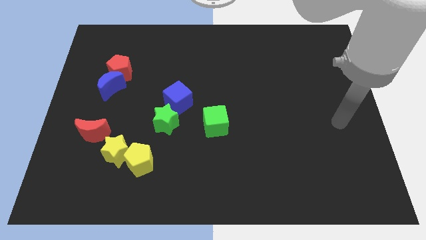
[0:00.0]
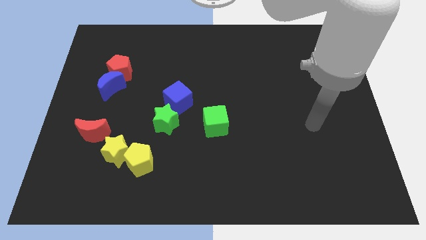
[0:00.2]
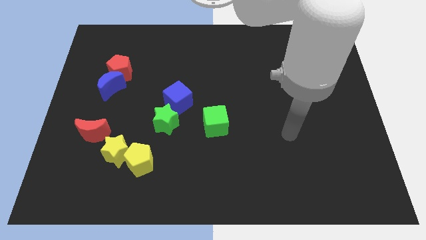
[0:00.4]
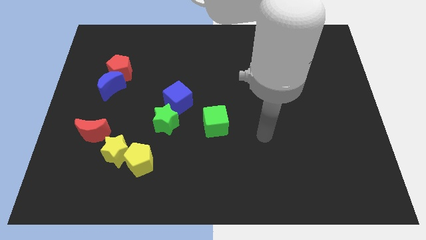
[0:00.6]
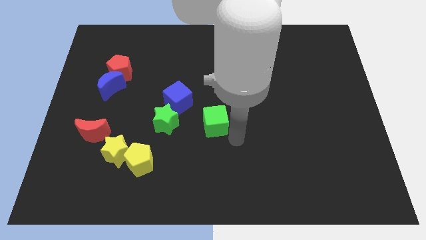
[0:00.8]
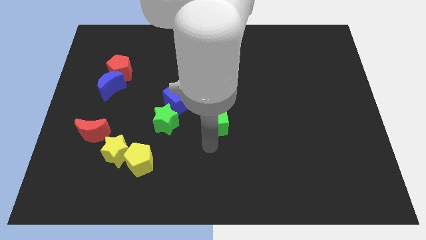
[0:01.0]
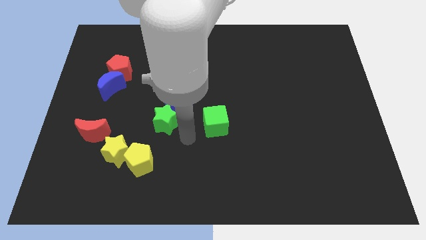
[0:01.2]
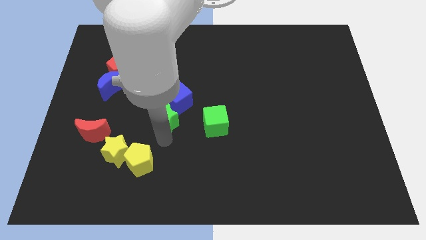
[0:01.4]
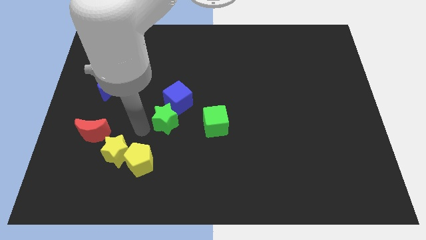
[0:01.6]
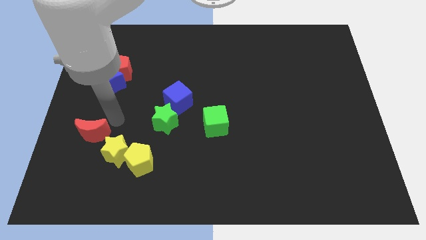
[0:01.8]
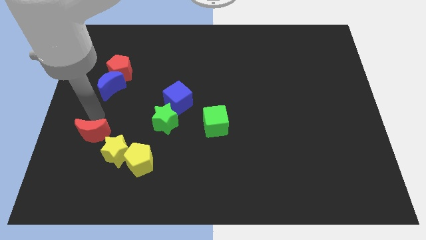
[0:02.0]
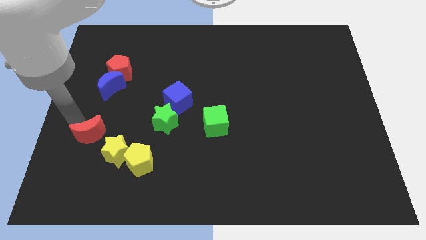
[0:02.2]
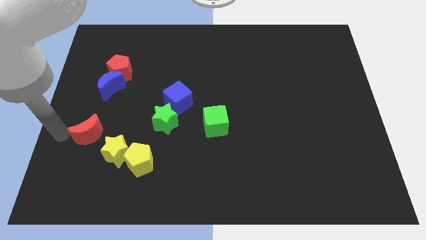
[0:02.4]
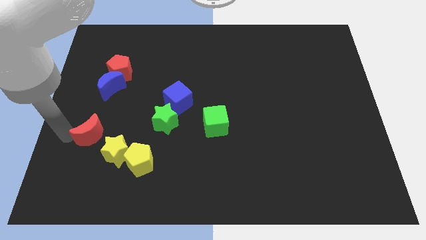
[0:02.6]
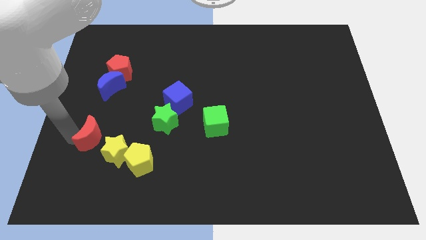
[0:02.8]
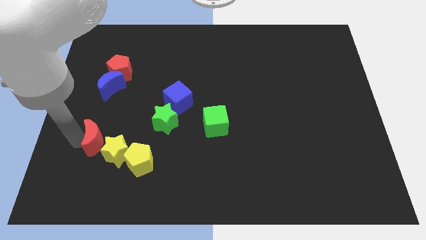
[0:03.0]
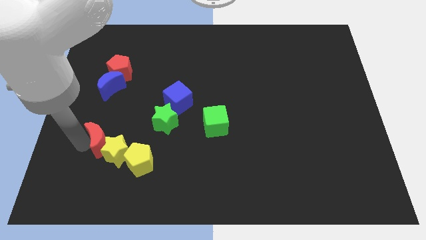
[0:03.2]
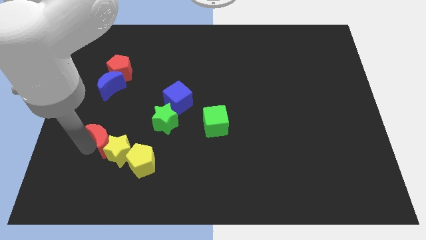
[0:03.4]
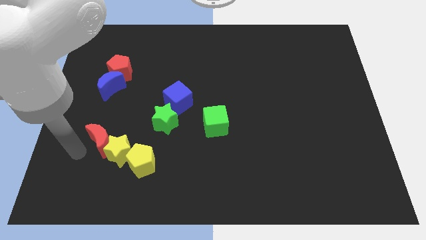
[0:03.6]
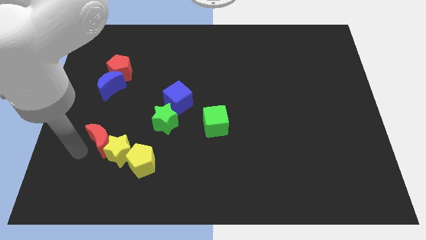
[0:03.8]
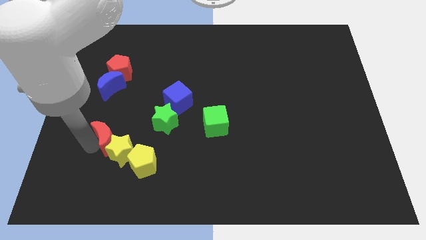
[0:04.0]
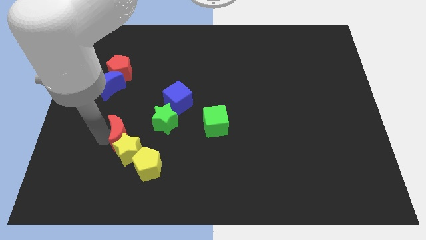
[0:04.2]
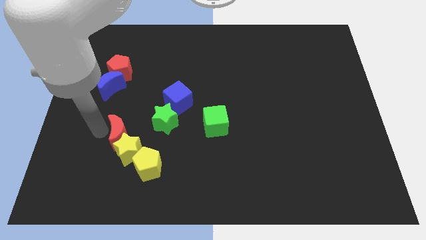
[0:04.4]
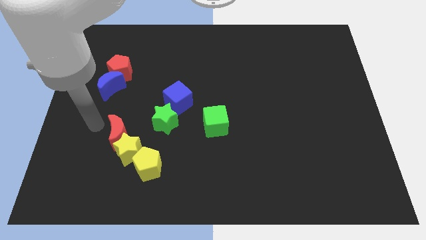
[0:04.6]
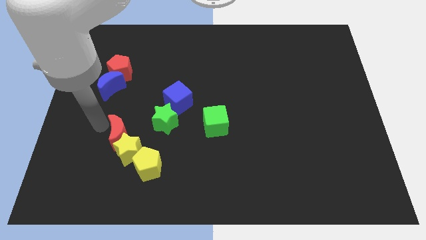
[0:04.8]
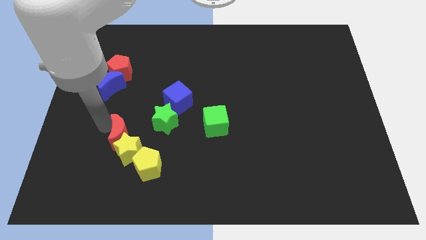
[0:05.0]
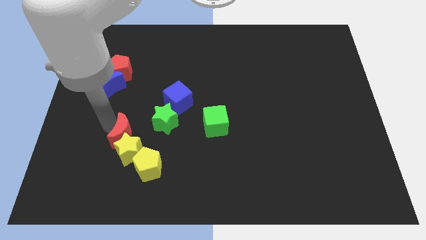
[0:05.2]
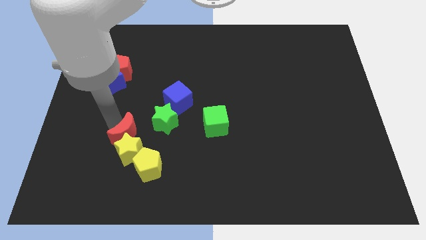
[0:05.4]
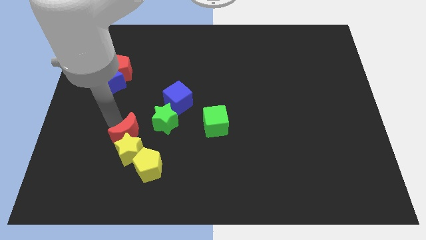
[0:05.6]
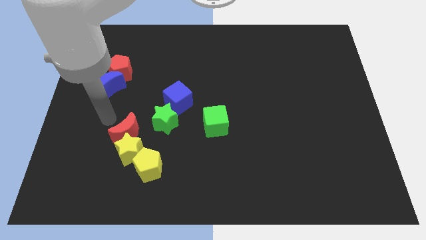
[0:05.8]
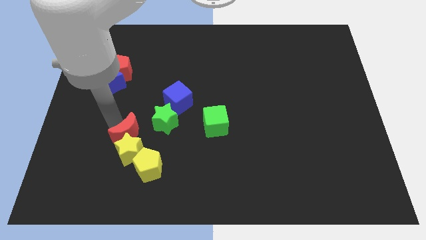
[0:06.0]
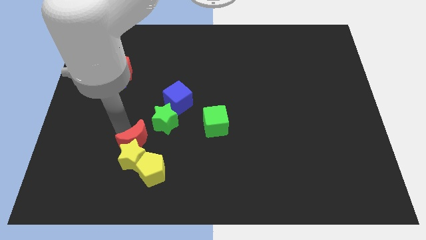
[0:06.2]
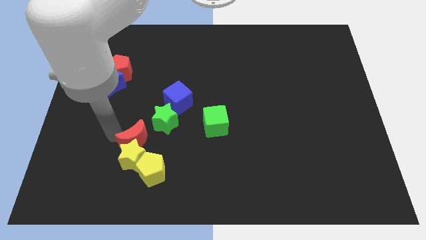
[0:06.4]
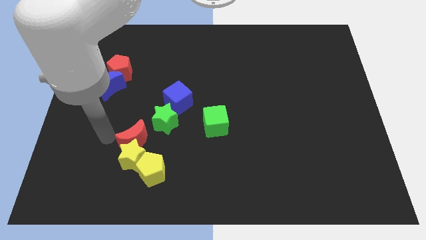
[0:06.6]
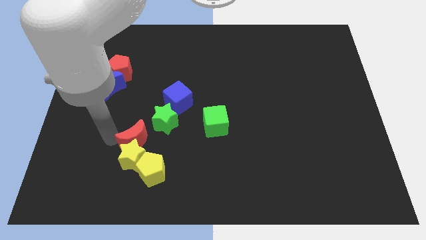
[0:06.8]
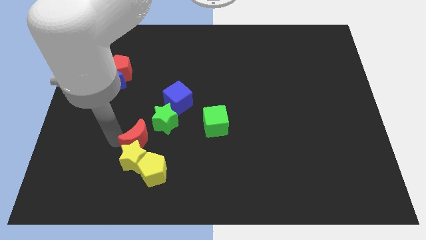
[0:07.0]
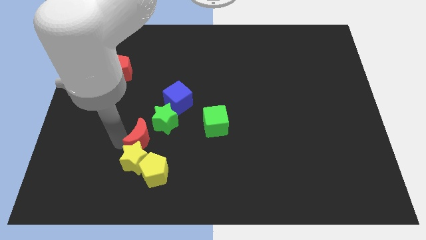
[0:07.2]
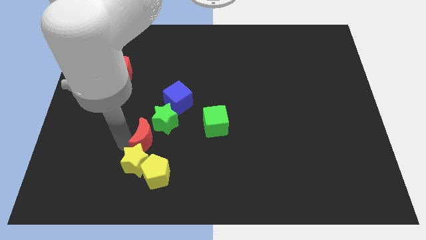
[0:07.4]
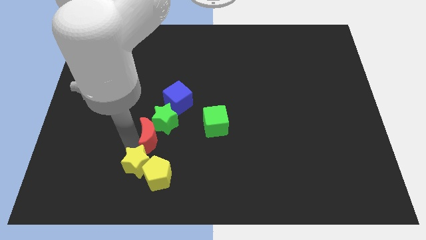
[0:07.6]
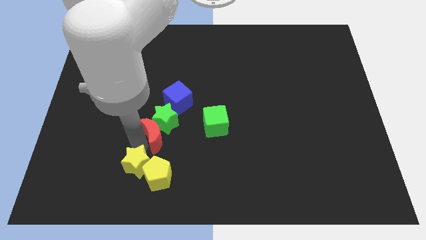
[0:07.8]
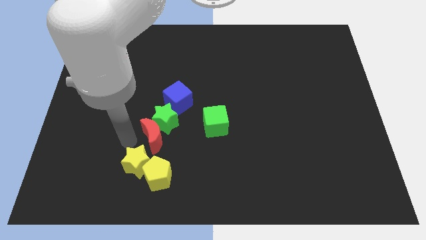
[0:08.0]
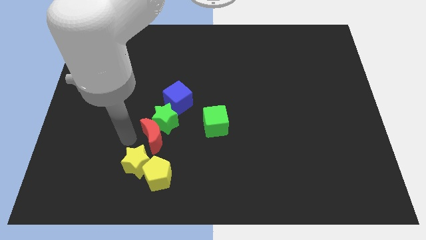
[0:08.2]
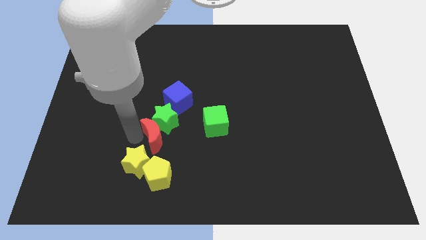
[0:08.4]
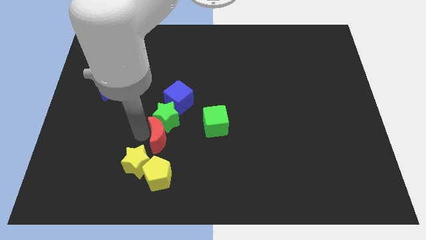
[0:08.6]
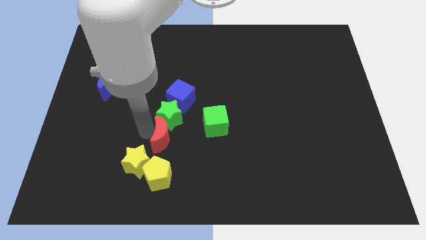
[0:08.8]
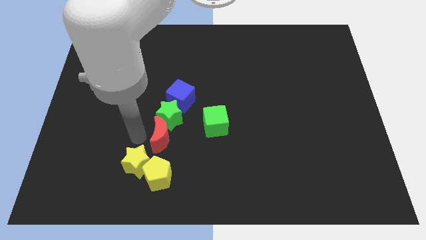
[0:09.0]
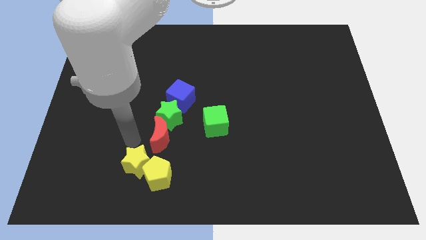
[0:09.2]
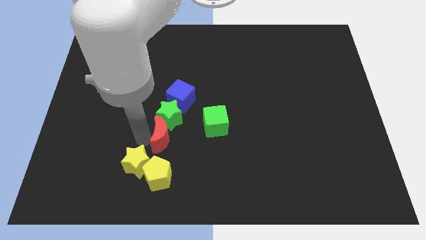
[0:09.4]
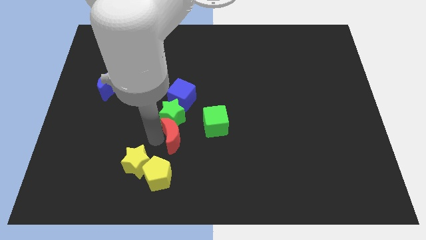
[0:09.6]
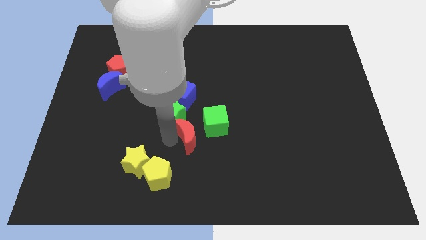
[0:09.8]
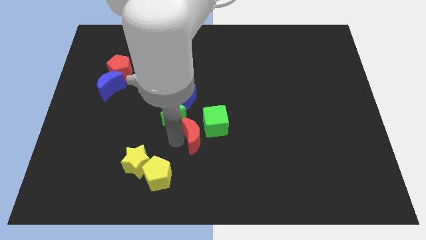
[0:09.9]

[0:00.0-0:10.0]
slide the red moon to the green cube

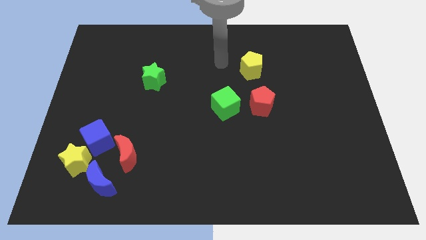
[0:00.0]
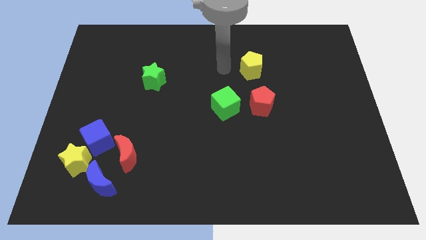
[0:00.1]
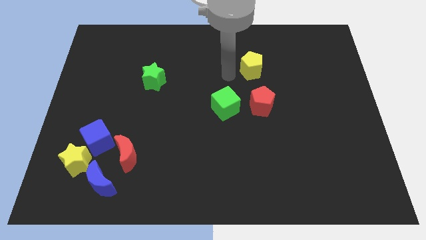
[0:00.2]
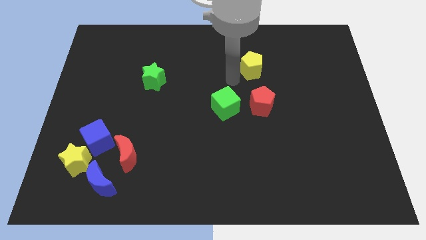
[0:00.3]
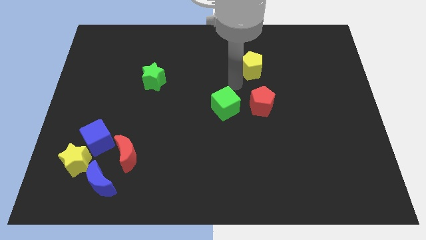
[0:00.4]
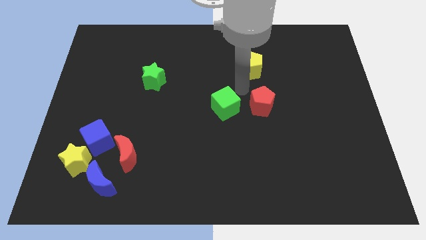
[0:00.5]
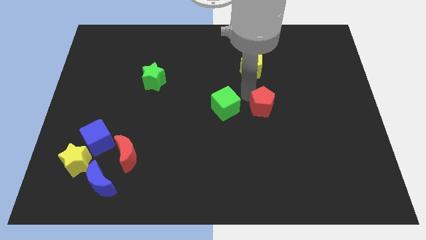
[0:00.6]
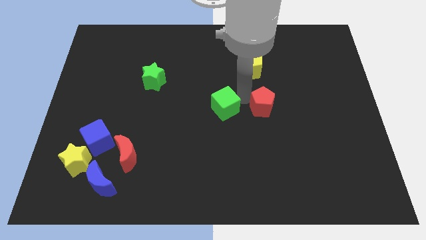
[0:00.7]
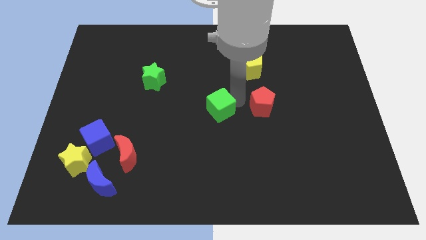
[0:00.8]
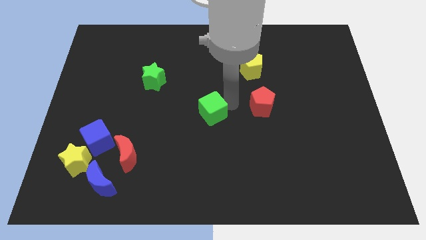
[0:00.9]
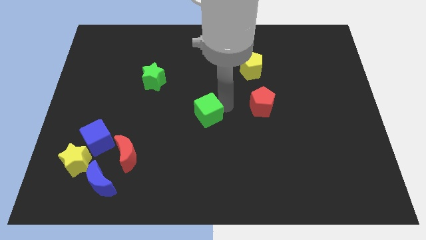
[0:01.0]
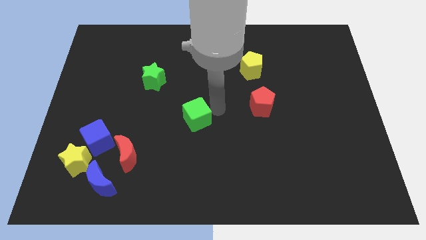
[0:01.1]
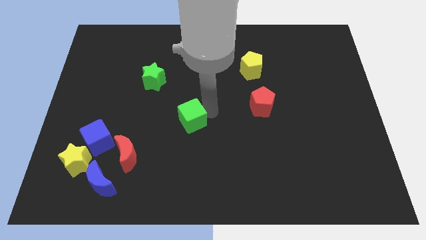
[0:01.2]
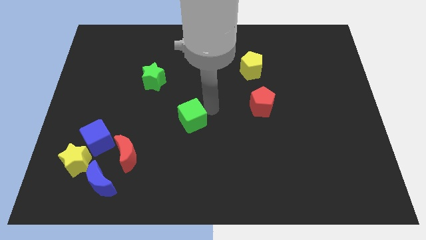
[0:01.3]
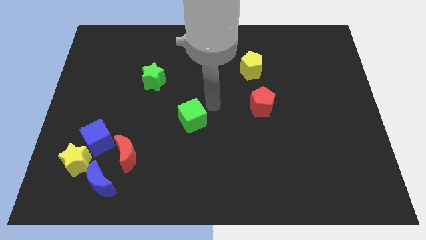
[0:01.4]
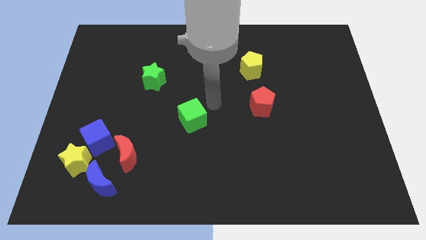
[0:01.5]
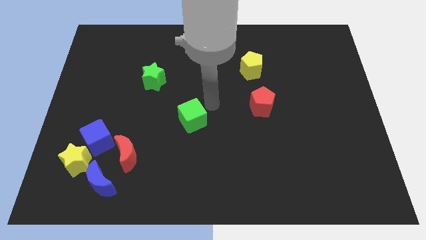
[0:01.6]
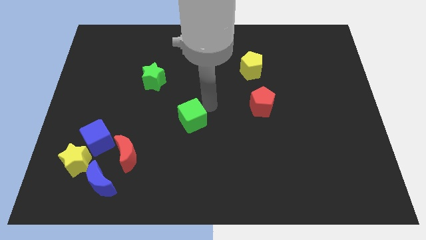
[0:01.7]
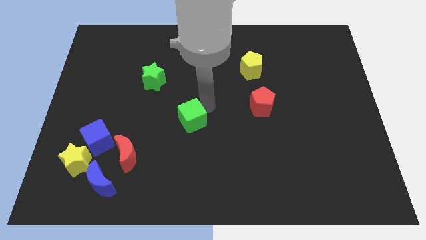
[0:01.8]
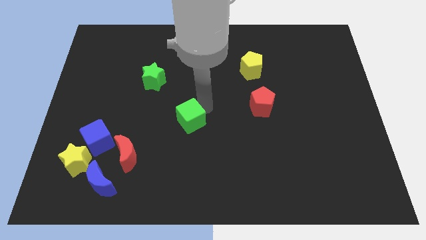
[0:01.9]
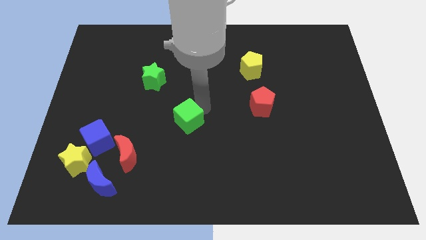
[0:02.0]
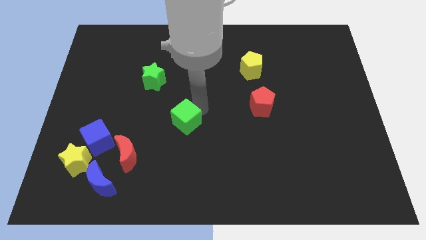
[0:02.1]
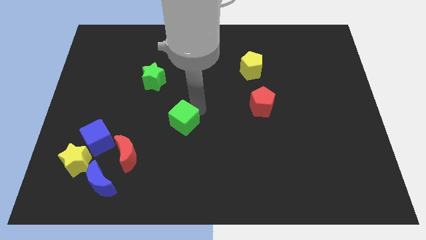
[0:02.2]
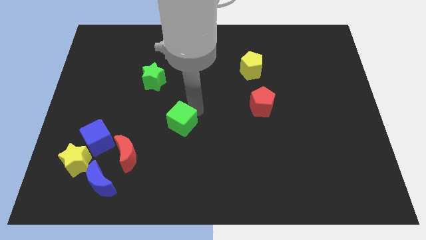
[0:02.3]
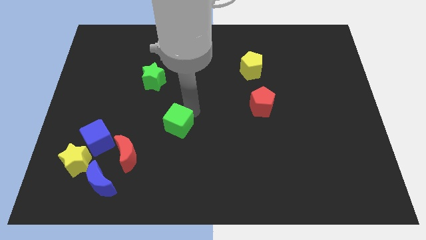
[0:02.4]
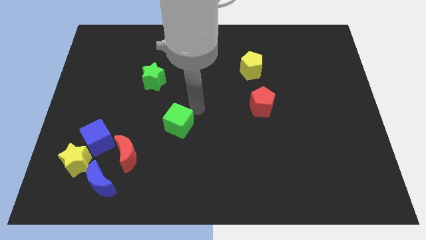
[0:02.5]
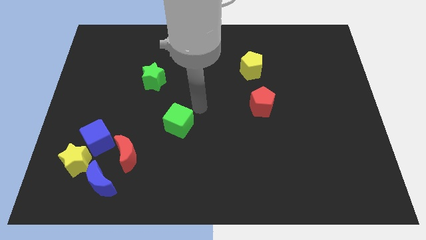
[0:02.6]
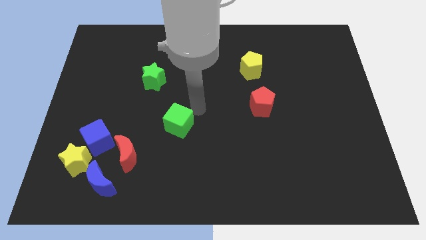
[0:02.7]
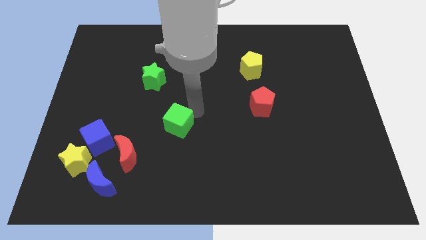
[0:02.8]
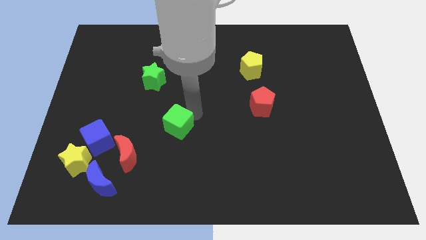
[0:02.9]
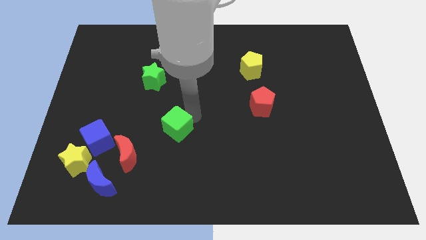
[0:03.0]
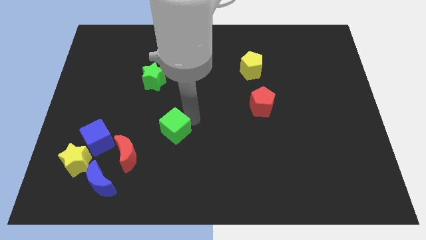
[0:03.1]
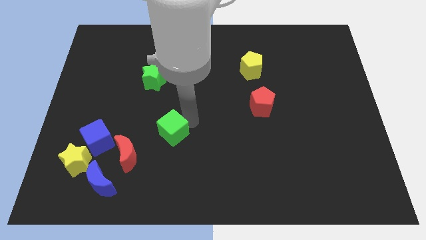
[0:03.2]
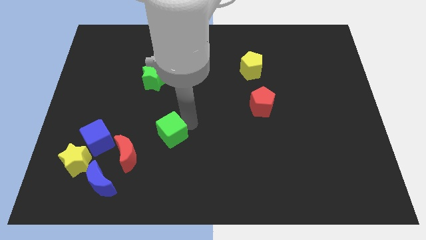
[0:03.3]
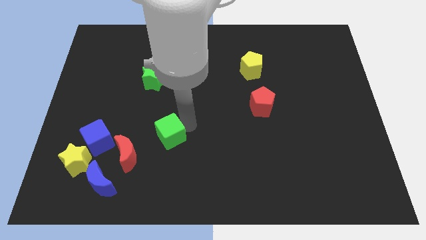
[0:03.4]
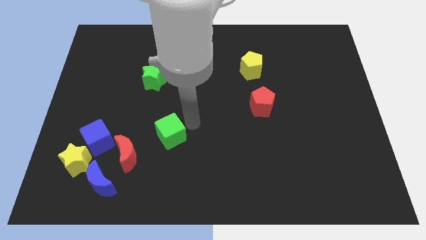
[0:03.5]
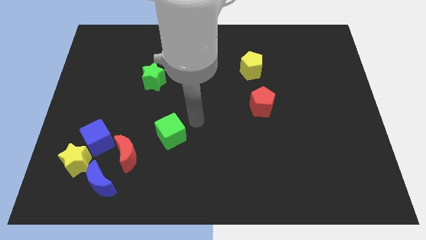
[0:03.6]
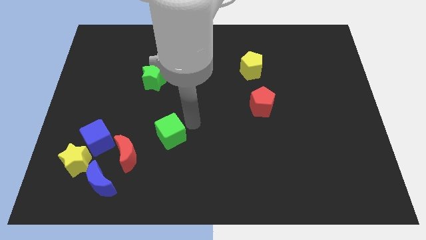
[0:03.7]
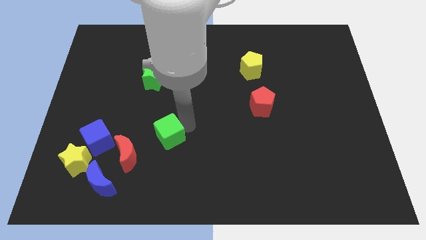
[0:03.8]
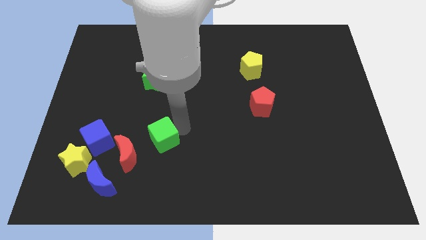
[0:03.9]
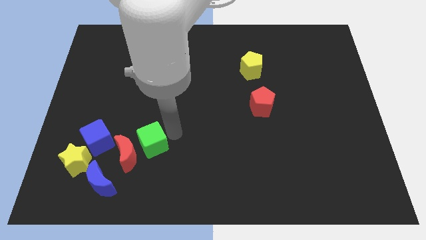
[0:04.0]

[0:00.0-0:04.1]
move the green cube close to the red moon
